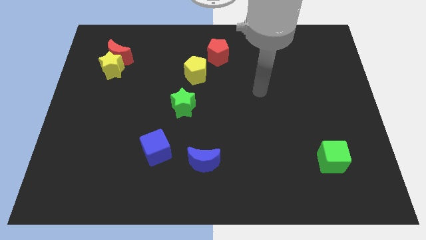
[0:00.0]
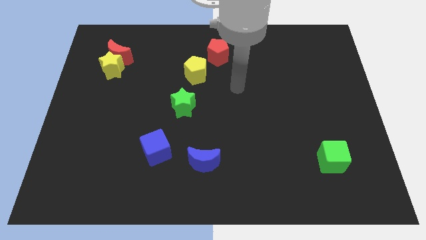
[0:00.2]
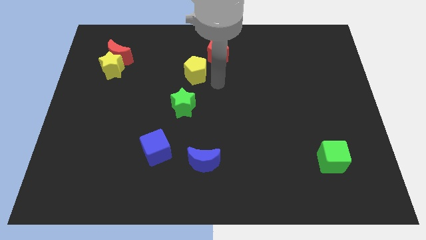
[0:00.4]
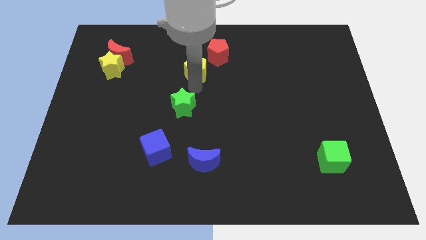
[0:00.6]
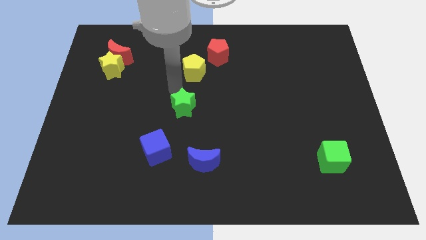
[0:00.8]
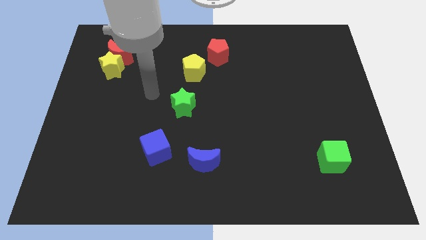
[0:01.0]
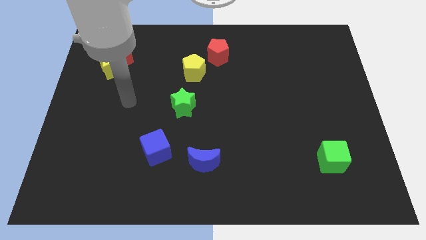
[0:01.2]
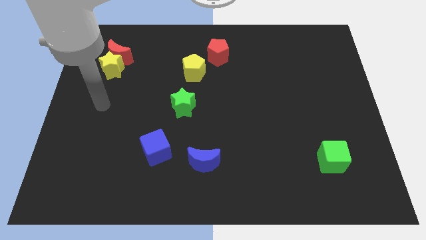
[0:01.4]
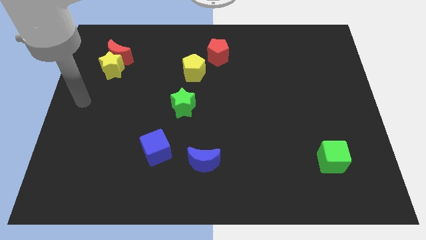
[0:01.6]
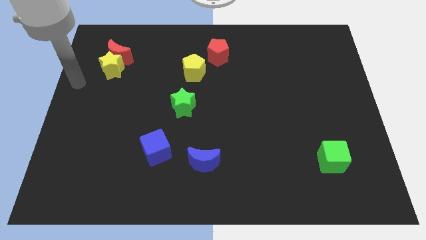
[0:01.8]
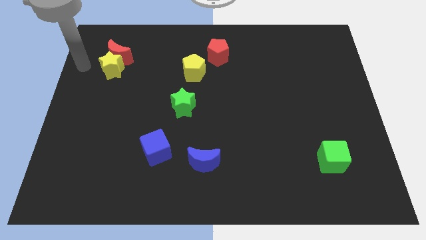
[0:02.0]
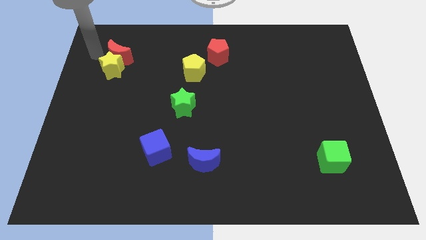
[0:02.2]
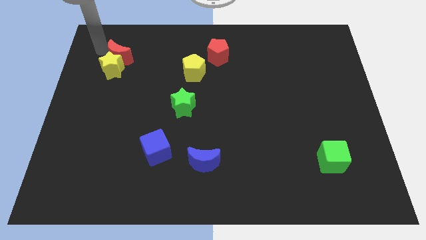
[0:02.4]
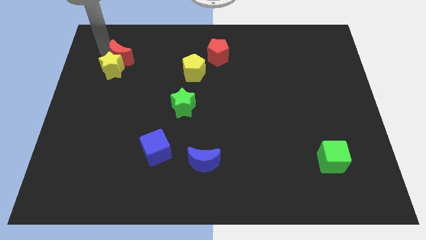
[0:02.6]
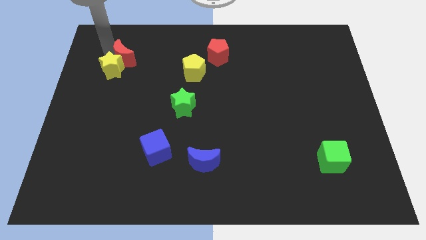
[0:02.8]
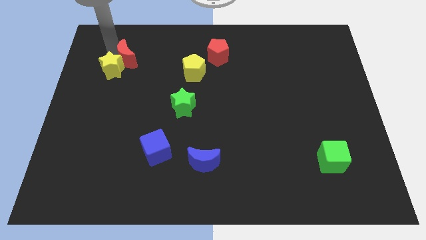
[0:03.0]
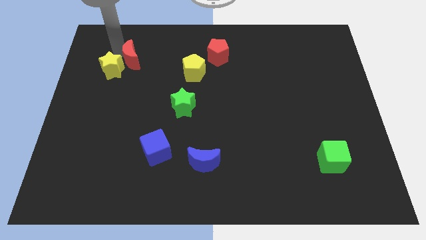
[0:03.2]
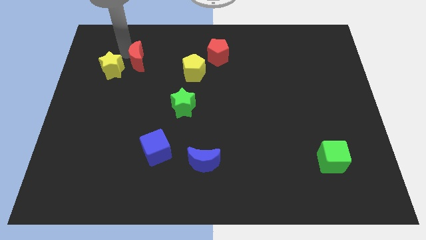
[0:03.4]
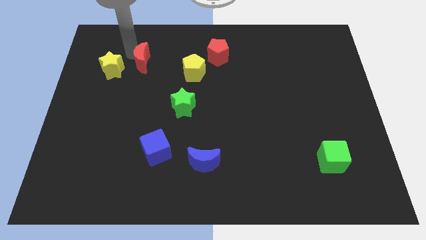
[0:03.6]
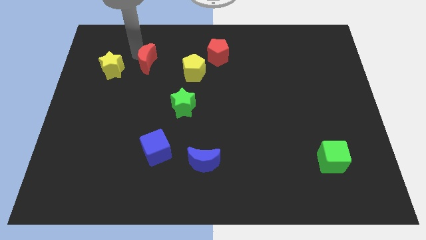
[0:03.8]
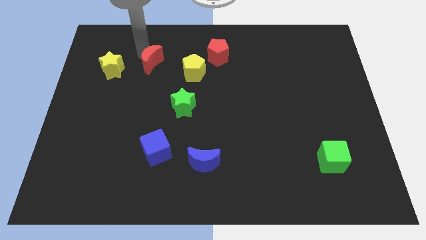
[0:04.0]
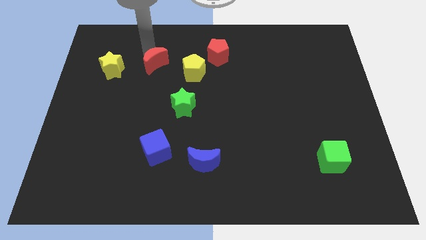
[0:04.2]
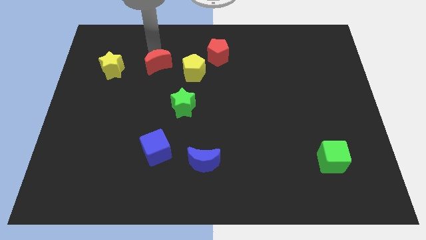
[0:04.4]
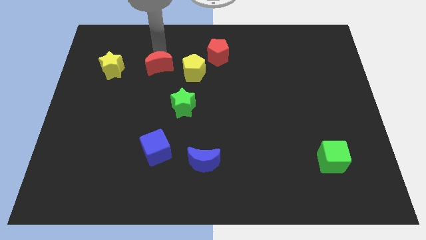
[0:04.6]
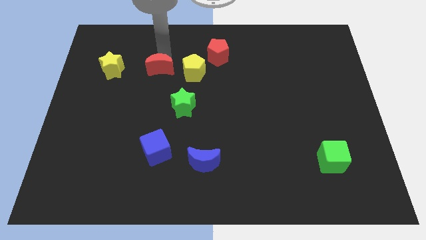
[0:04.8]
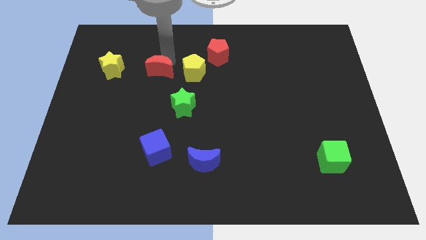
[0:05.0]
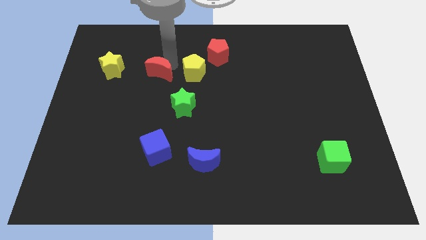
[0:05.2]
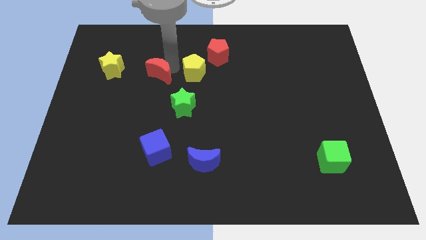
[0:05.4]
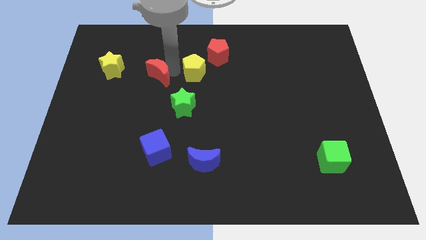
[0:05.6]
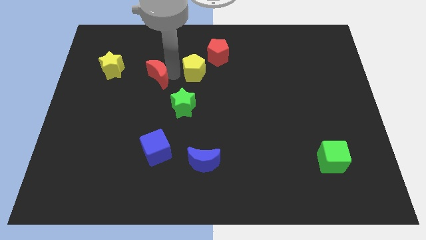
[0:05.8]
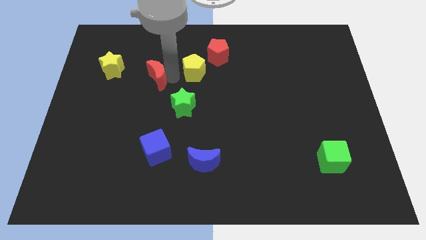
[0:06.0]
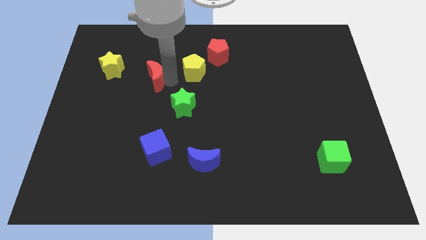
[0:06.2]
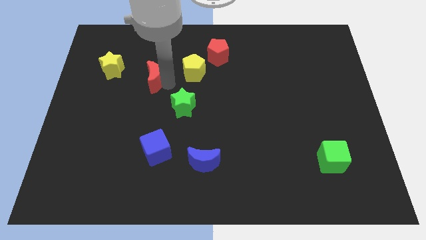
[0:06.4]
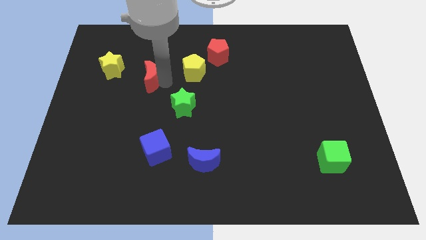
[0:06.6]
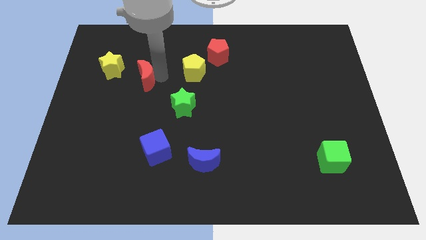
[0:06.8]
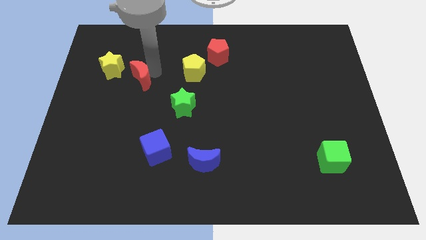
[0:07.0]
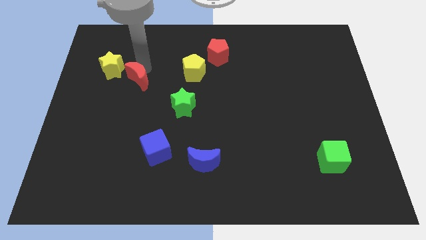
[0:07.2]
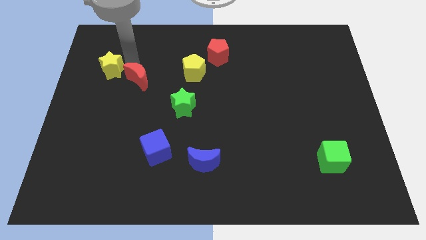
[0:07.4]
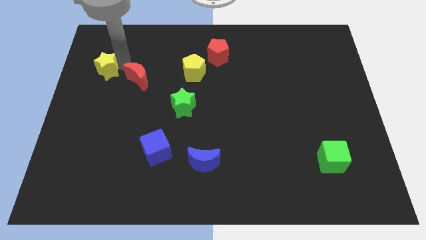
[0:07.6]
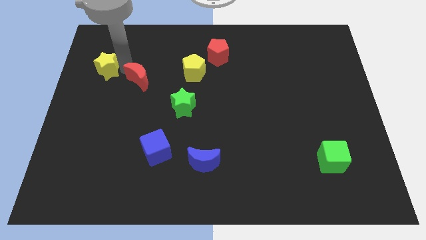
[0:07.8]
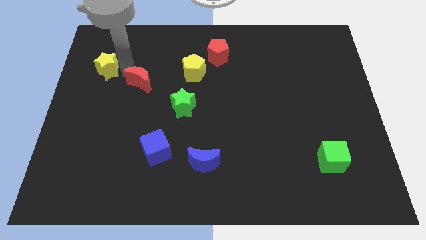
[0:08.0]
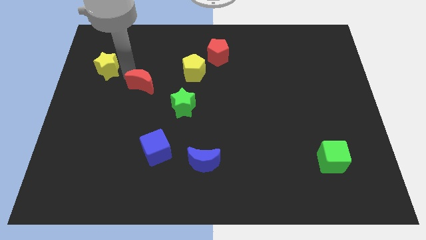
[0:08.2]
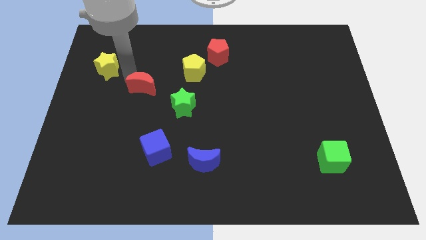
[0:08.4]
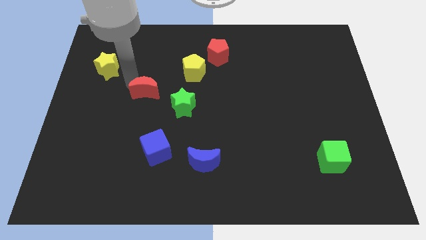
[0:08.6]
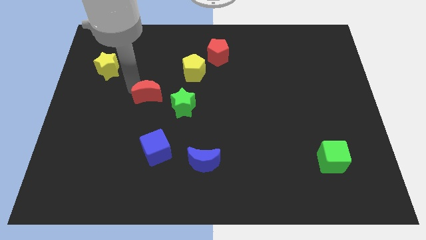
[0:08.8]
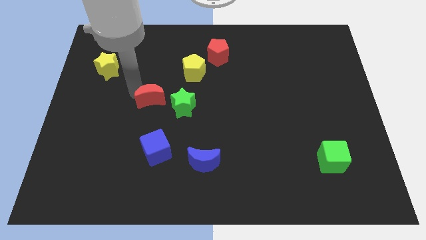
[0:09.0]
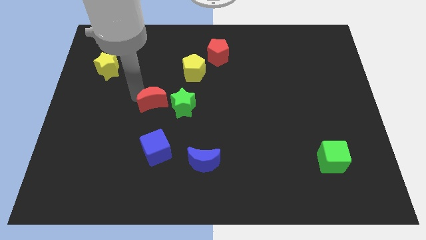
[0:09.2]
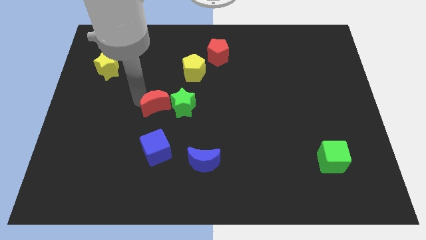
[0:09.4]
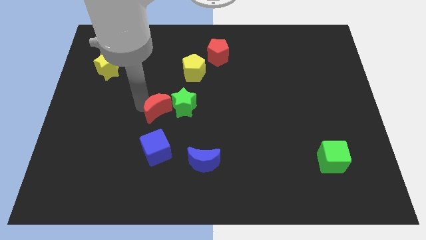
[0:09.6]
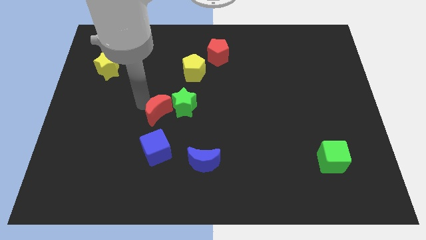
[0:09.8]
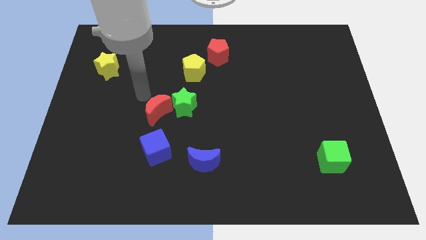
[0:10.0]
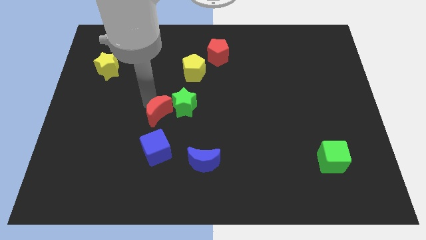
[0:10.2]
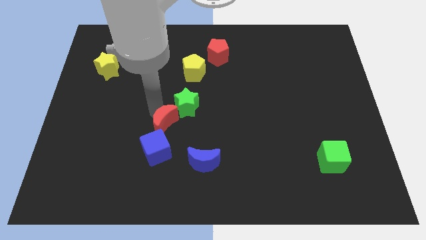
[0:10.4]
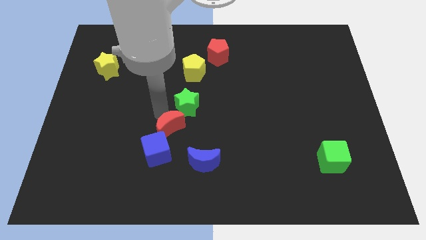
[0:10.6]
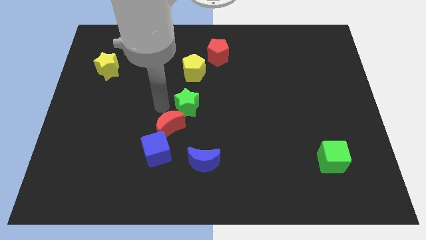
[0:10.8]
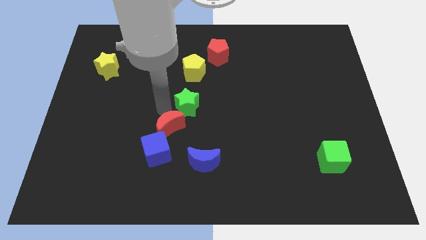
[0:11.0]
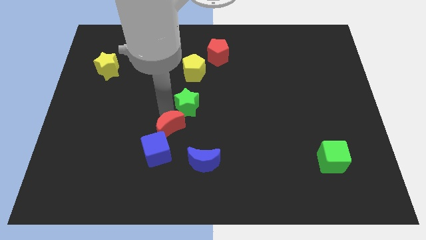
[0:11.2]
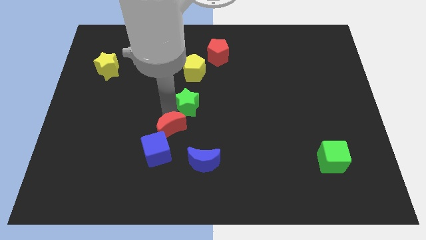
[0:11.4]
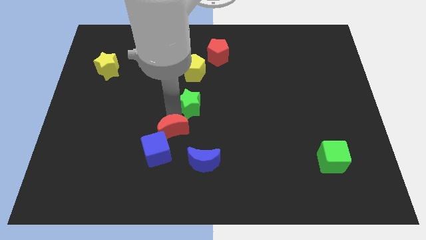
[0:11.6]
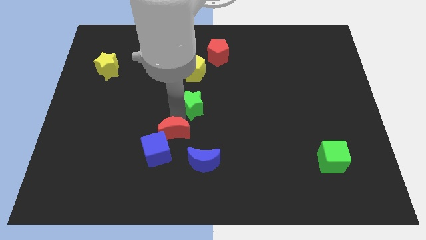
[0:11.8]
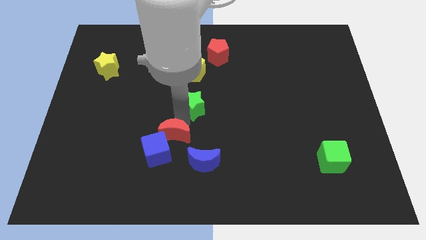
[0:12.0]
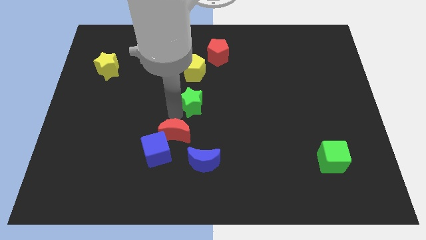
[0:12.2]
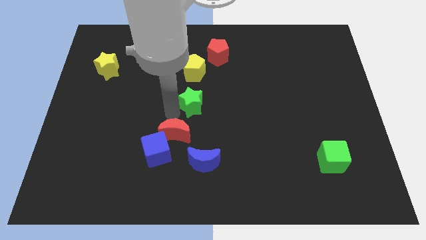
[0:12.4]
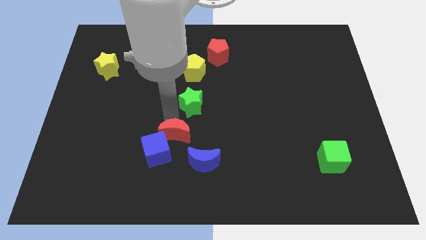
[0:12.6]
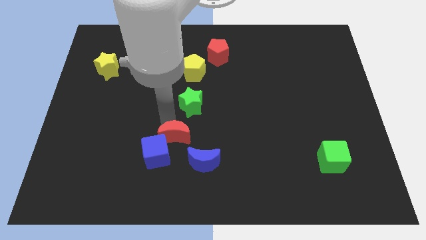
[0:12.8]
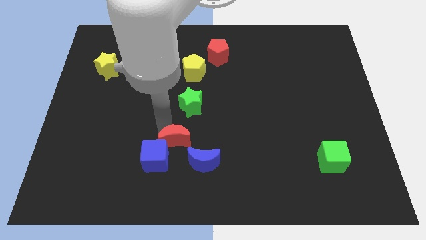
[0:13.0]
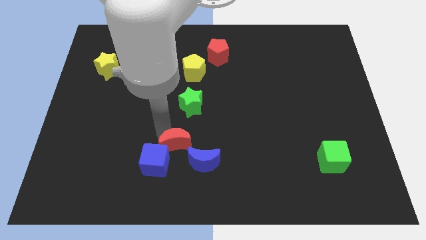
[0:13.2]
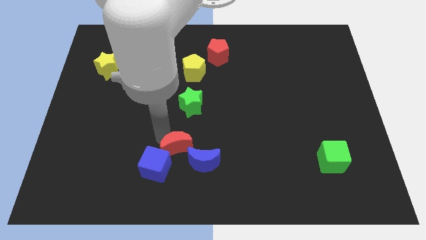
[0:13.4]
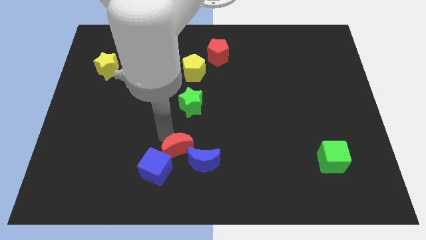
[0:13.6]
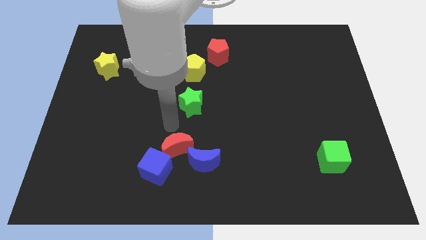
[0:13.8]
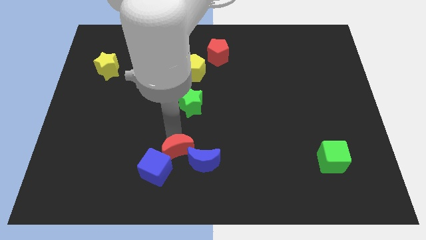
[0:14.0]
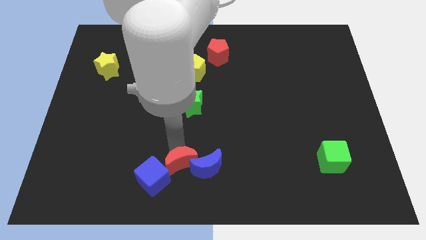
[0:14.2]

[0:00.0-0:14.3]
put the red moon to the bottom
